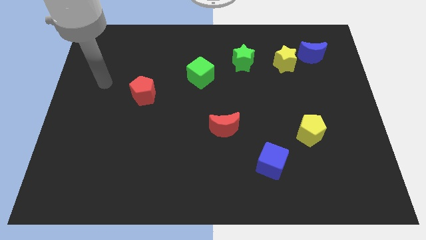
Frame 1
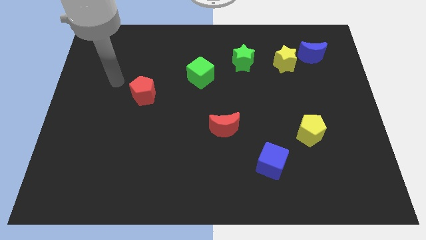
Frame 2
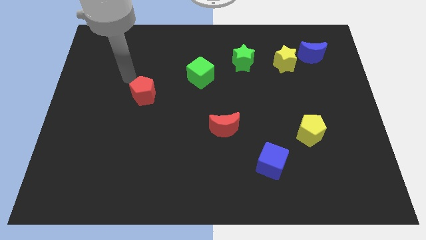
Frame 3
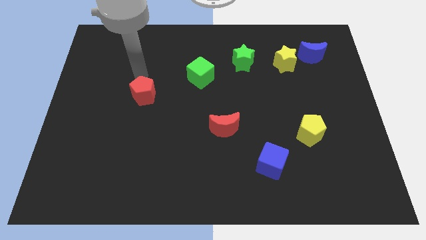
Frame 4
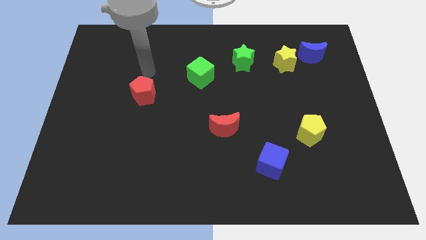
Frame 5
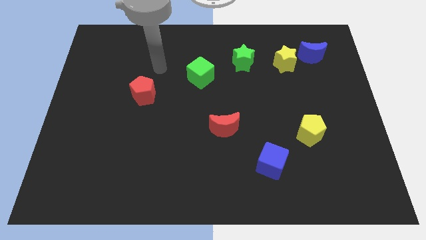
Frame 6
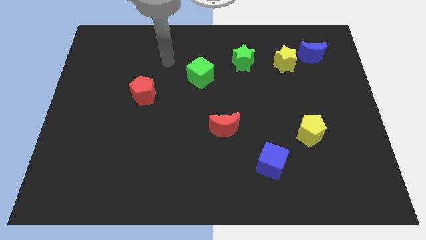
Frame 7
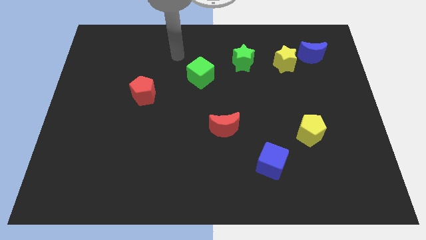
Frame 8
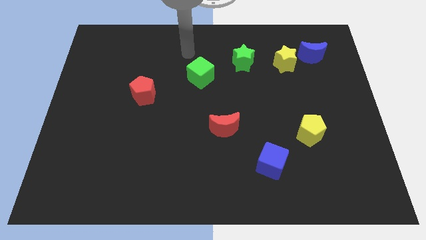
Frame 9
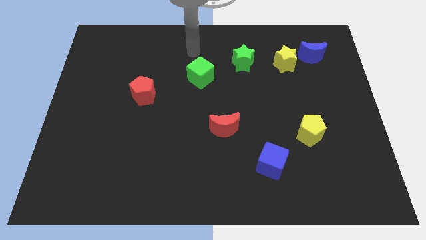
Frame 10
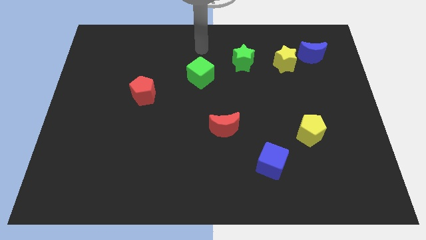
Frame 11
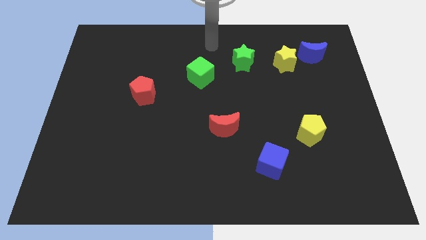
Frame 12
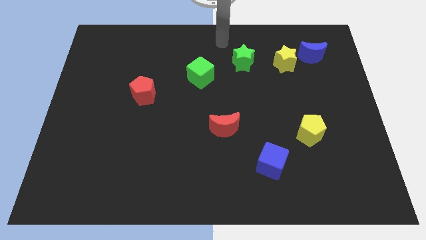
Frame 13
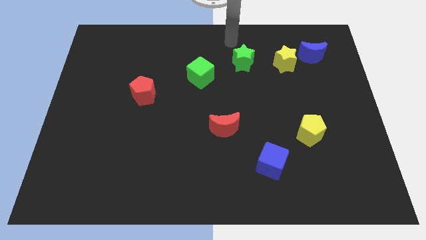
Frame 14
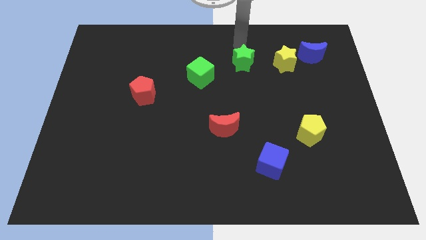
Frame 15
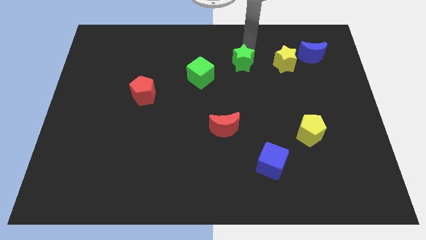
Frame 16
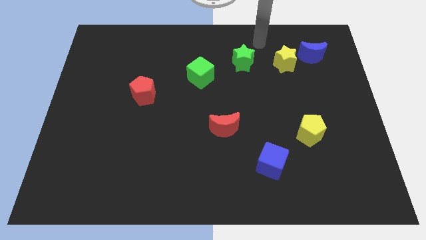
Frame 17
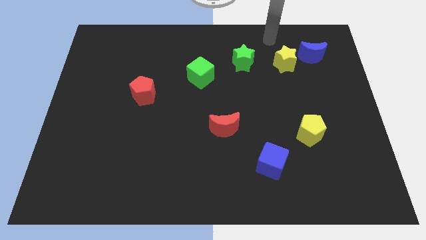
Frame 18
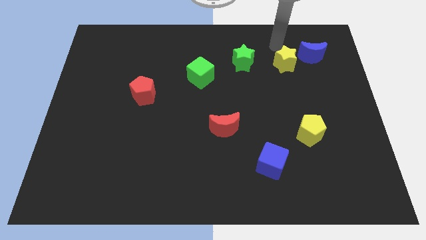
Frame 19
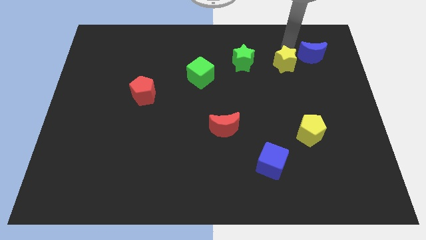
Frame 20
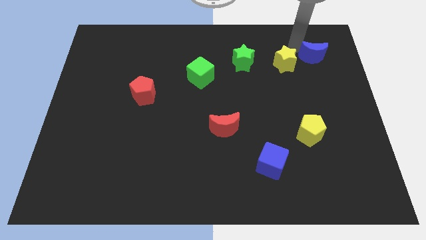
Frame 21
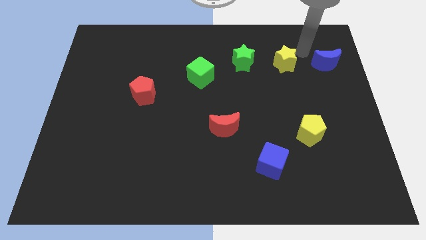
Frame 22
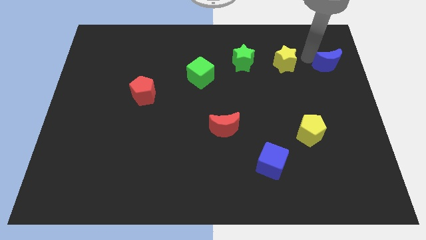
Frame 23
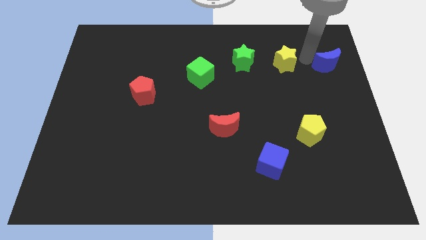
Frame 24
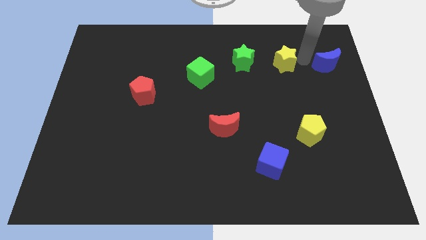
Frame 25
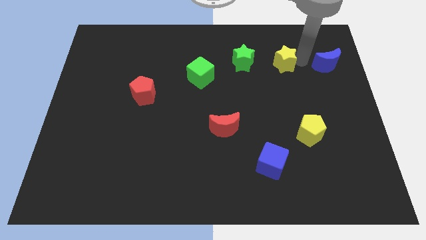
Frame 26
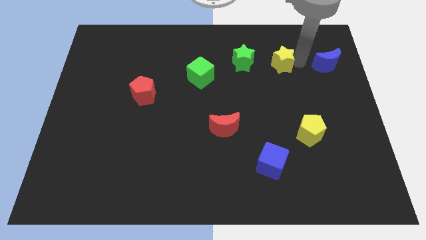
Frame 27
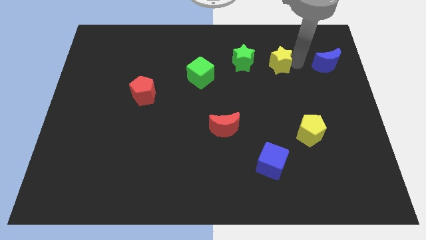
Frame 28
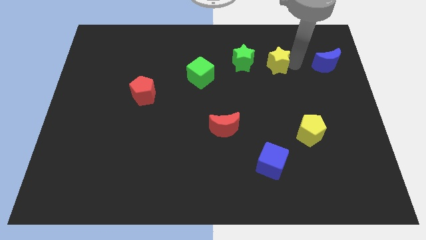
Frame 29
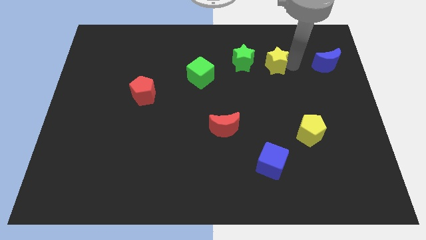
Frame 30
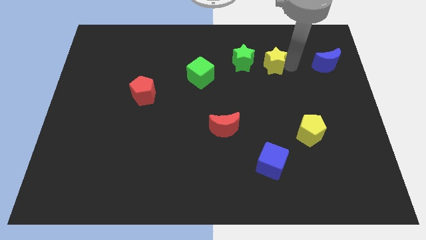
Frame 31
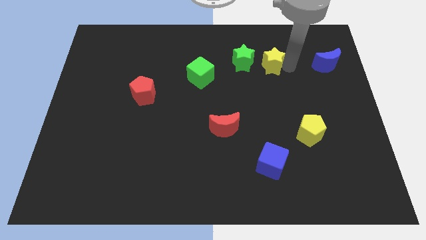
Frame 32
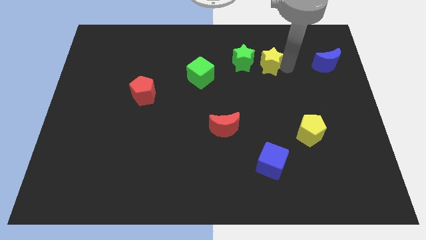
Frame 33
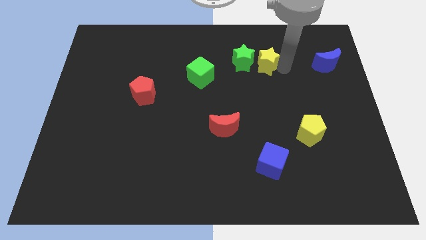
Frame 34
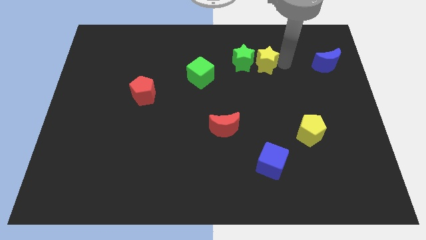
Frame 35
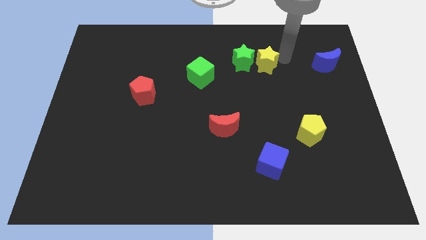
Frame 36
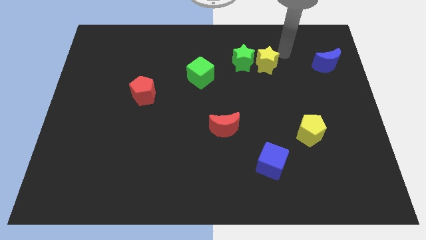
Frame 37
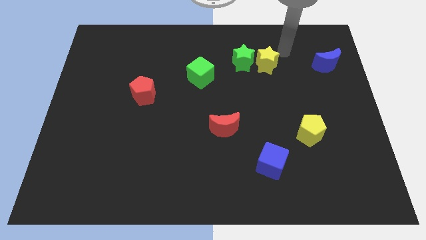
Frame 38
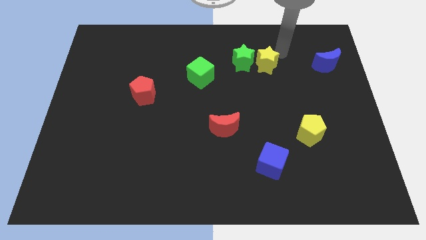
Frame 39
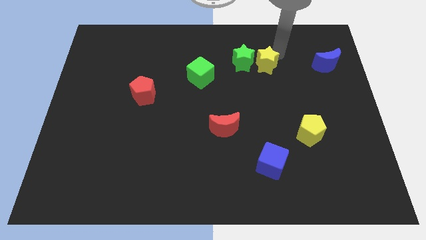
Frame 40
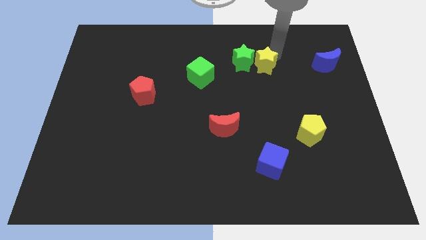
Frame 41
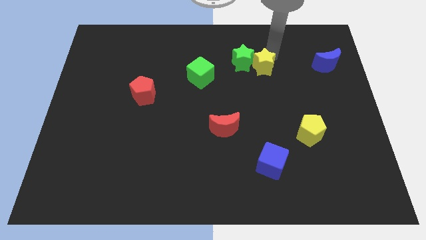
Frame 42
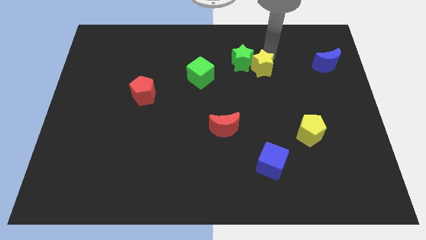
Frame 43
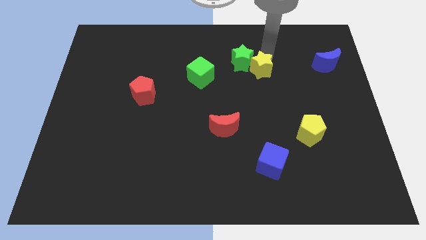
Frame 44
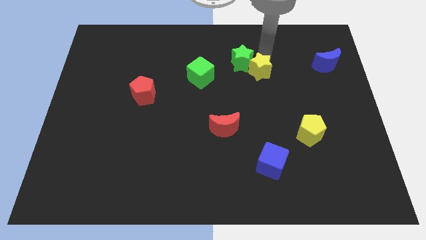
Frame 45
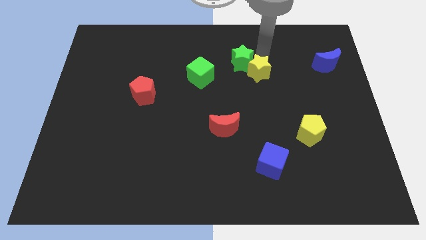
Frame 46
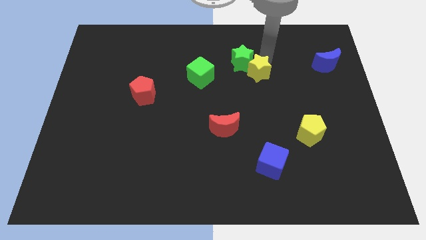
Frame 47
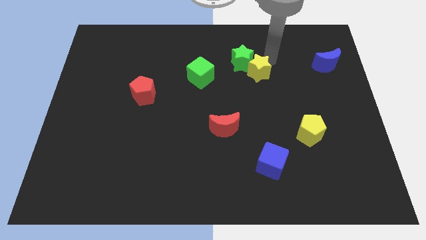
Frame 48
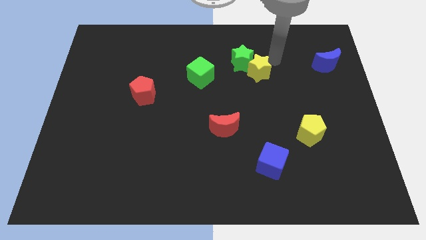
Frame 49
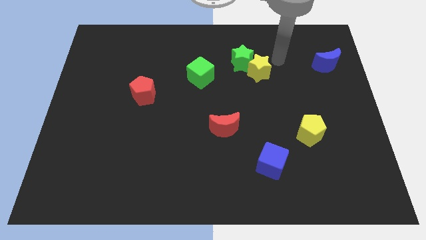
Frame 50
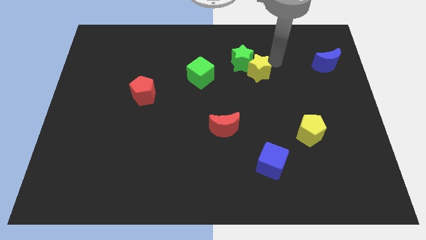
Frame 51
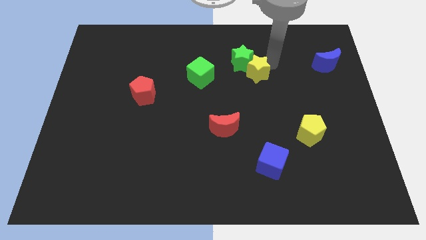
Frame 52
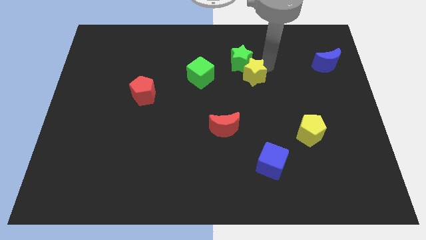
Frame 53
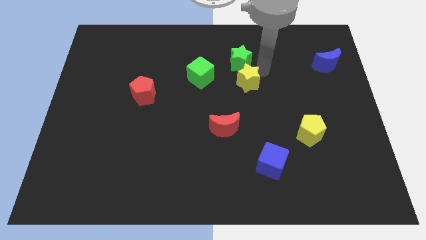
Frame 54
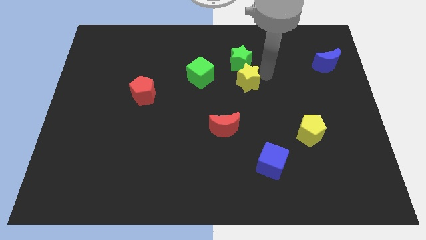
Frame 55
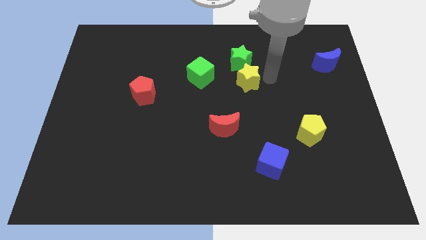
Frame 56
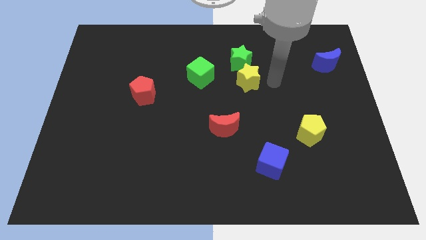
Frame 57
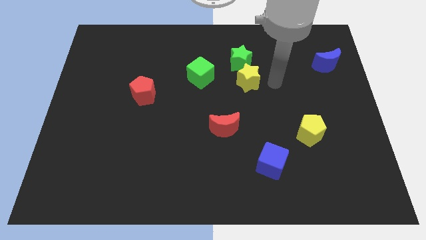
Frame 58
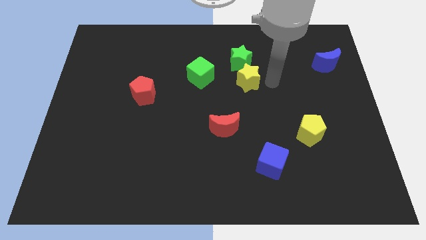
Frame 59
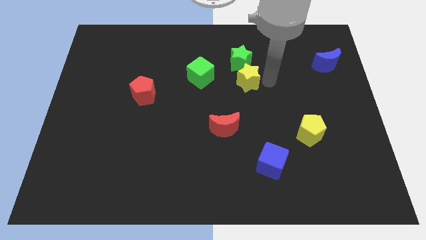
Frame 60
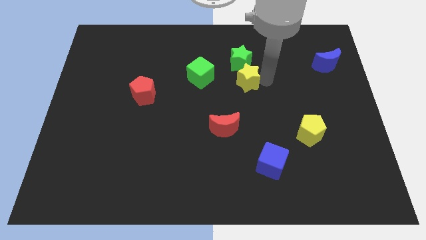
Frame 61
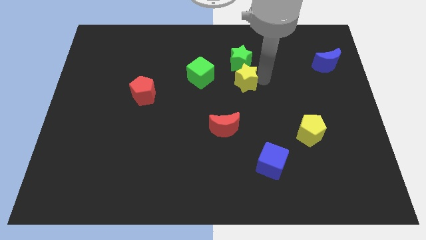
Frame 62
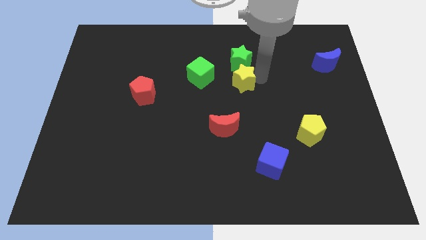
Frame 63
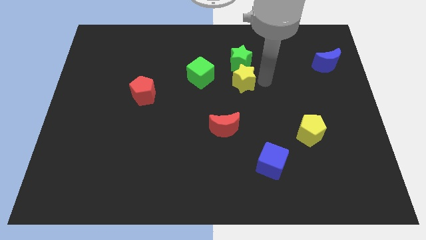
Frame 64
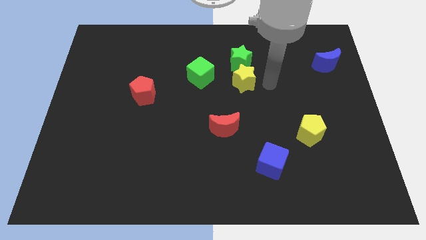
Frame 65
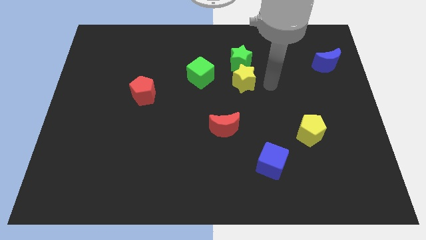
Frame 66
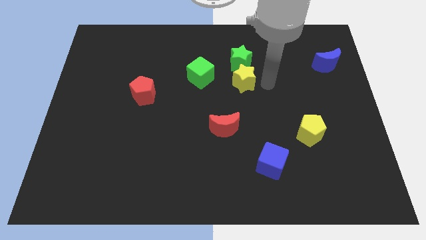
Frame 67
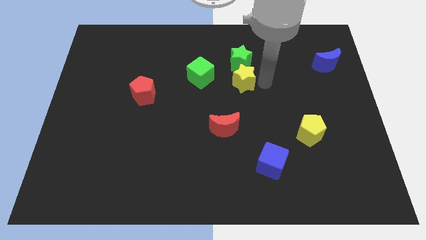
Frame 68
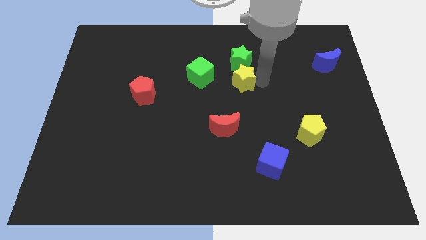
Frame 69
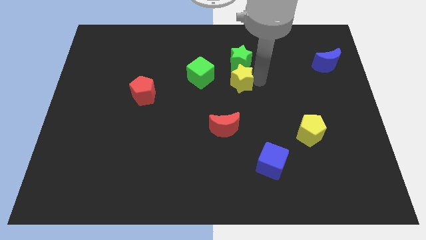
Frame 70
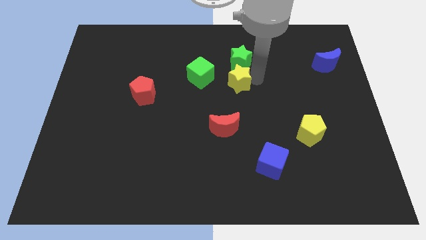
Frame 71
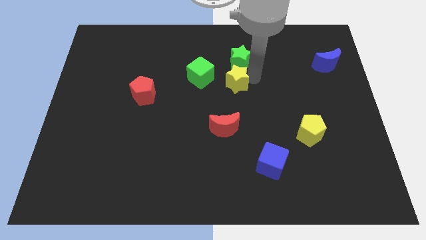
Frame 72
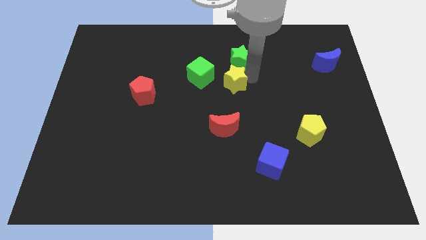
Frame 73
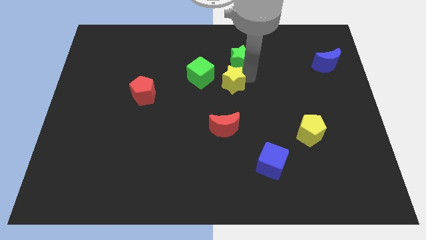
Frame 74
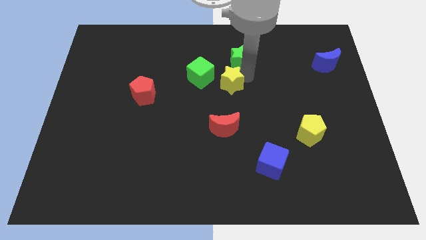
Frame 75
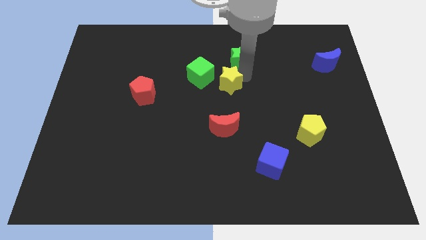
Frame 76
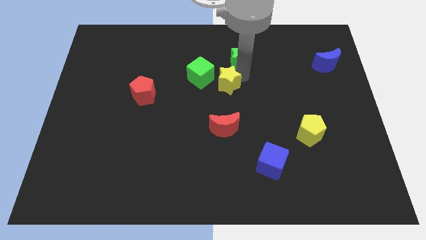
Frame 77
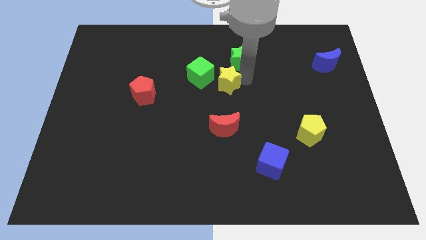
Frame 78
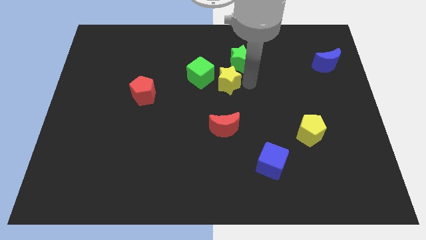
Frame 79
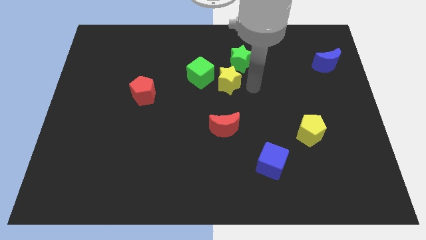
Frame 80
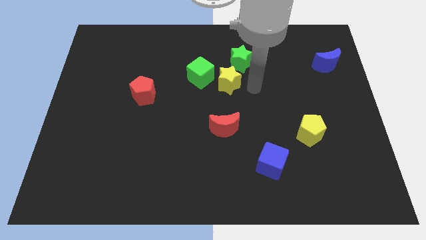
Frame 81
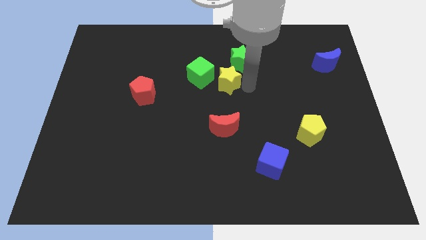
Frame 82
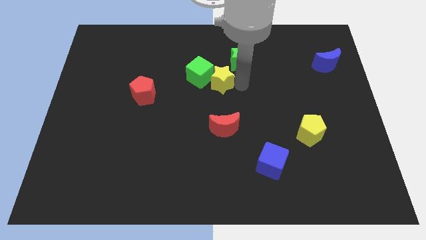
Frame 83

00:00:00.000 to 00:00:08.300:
put the yellow star to the green cube
